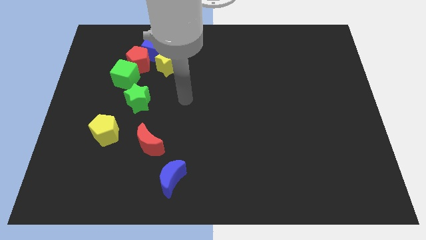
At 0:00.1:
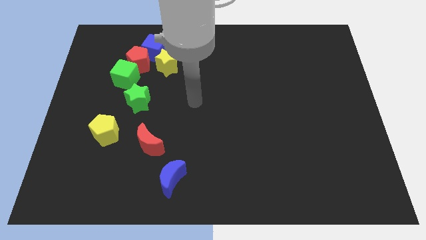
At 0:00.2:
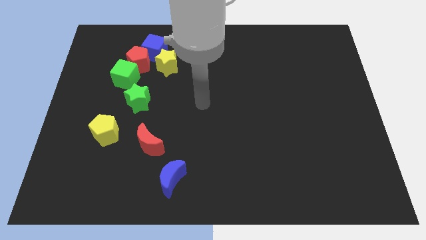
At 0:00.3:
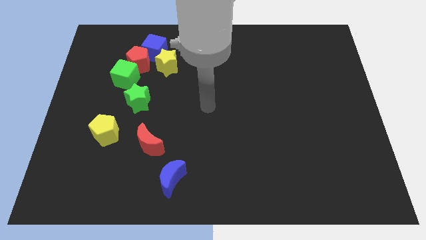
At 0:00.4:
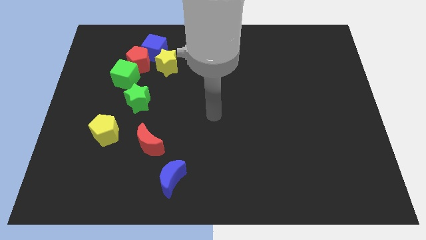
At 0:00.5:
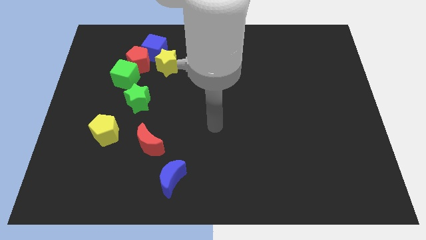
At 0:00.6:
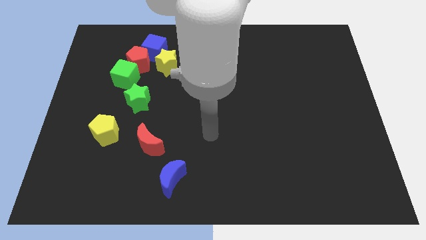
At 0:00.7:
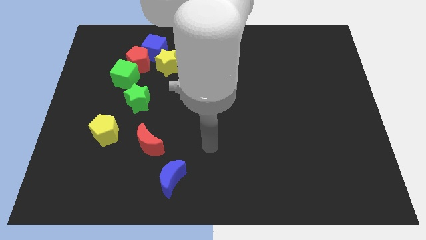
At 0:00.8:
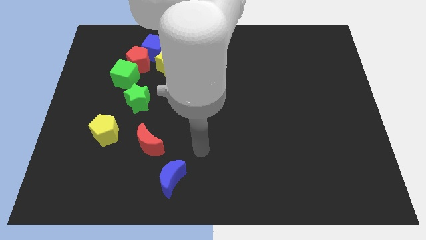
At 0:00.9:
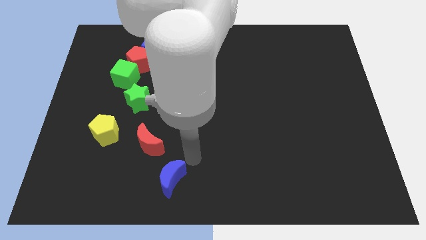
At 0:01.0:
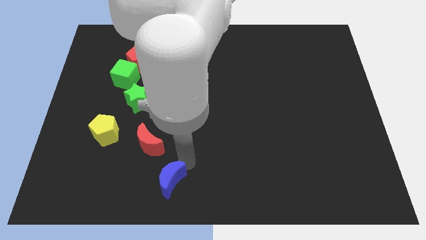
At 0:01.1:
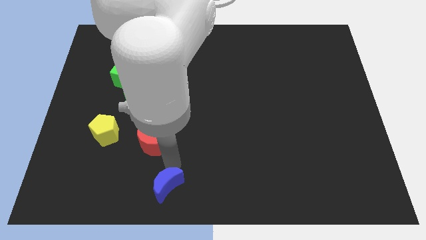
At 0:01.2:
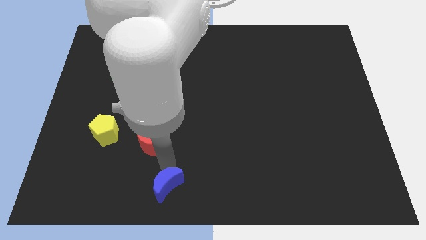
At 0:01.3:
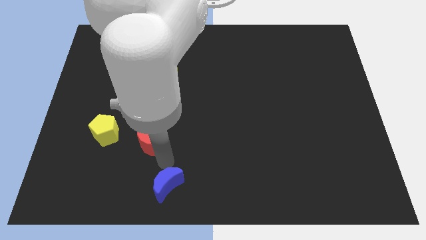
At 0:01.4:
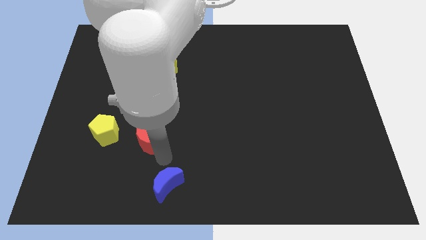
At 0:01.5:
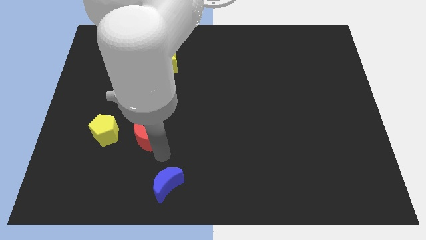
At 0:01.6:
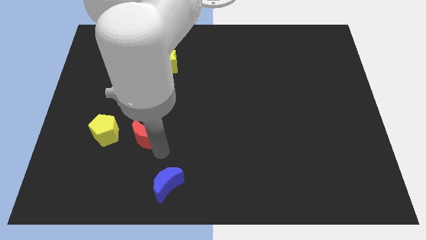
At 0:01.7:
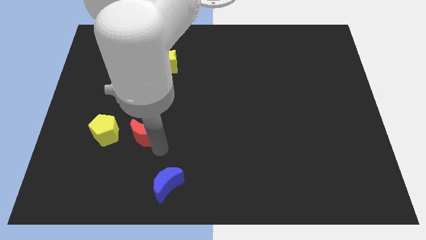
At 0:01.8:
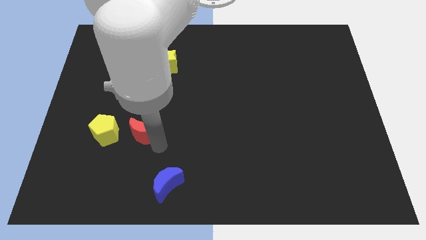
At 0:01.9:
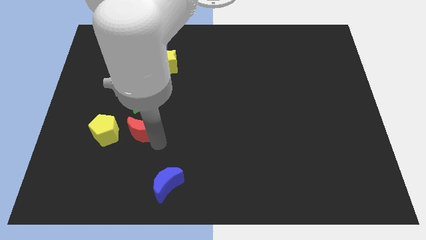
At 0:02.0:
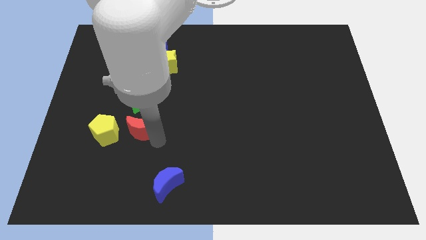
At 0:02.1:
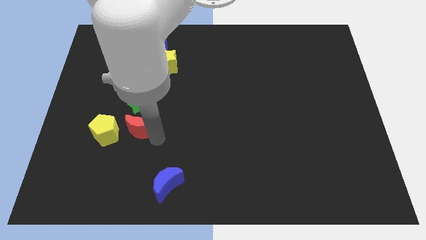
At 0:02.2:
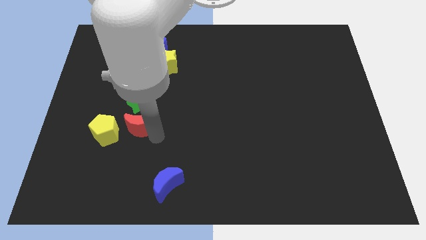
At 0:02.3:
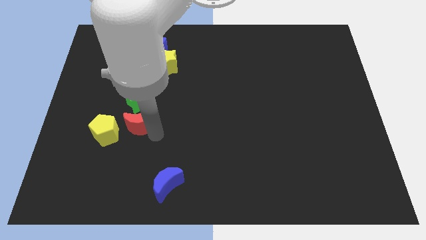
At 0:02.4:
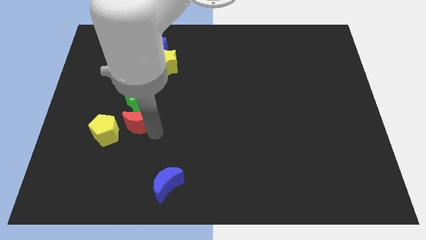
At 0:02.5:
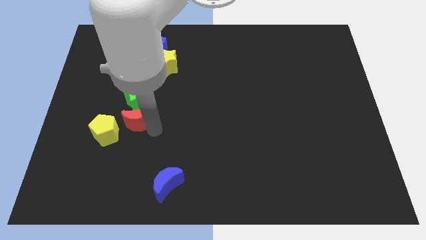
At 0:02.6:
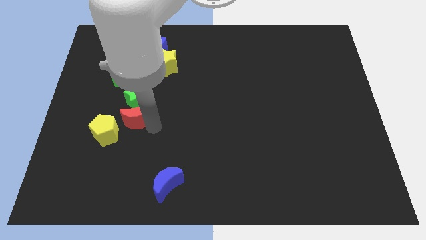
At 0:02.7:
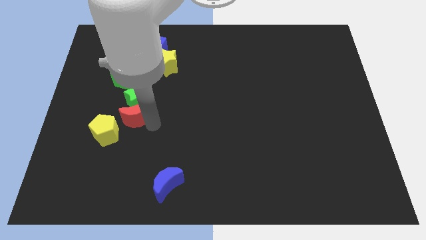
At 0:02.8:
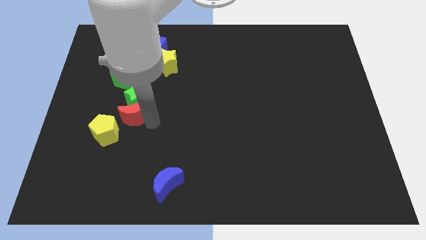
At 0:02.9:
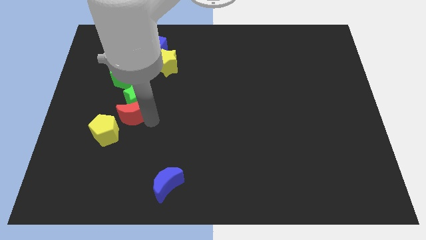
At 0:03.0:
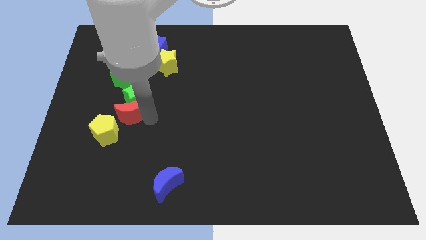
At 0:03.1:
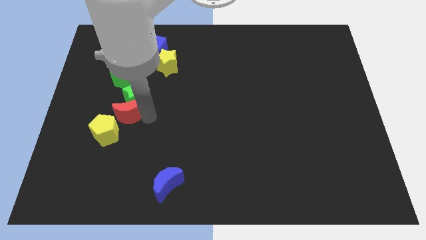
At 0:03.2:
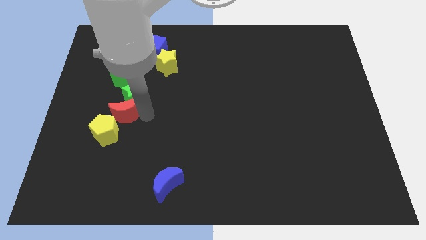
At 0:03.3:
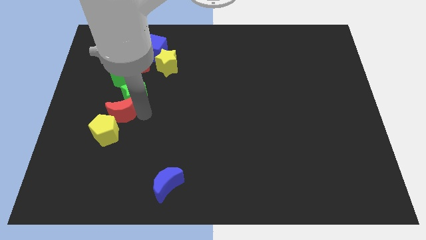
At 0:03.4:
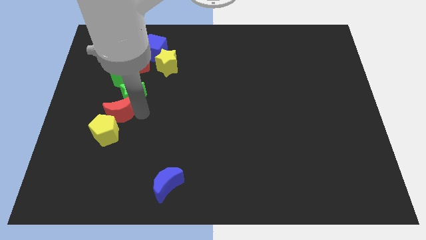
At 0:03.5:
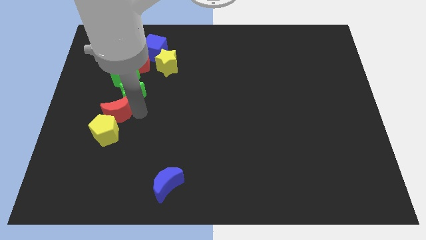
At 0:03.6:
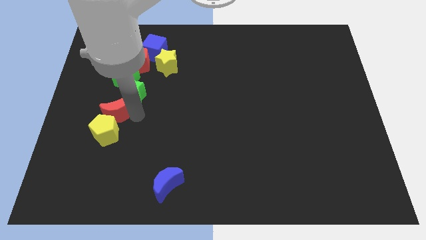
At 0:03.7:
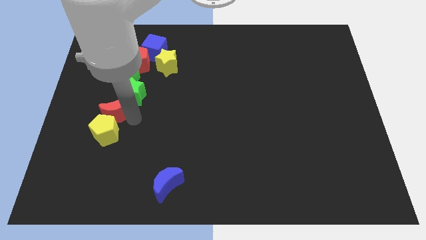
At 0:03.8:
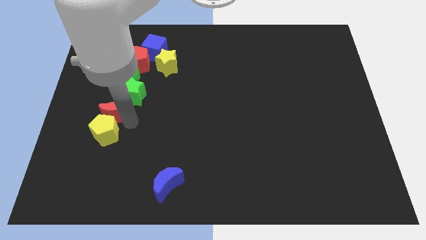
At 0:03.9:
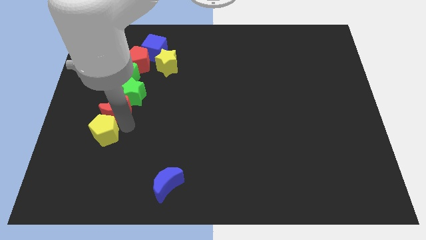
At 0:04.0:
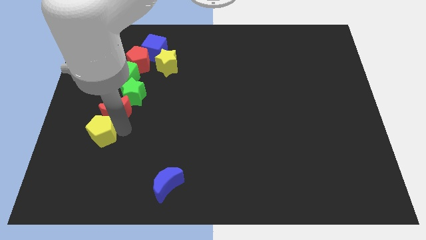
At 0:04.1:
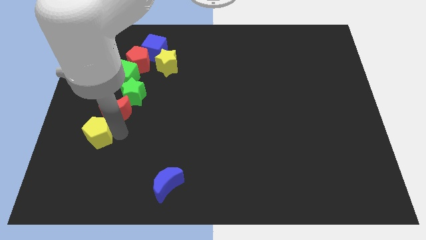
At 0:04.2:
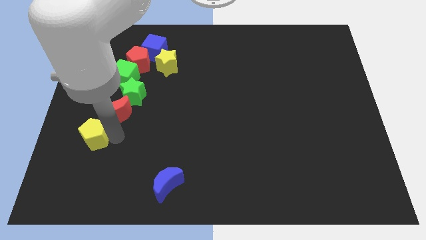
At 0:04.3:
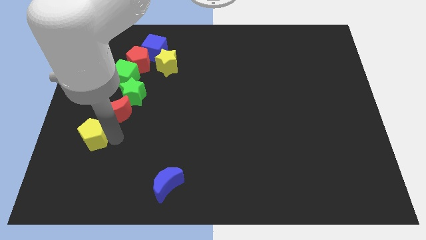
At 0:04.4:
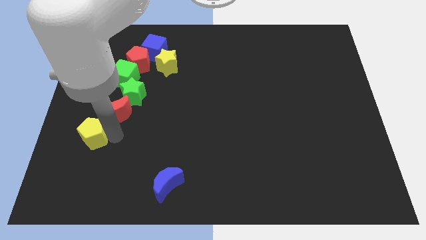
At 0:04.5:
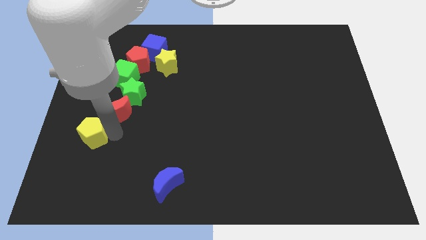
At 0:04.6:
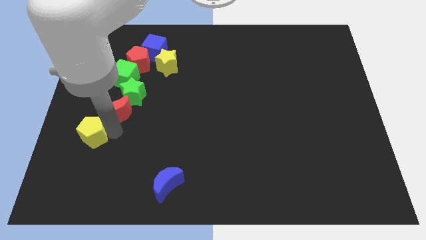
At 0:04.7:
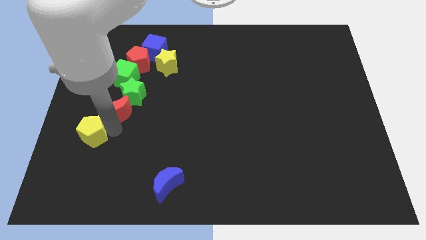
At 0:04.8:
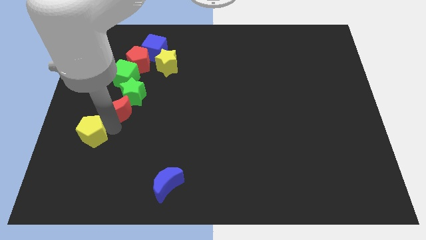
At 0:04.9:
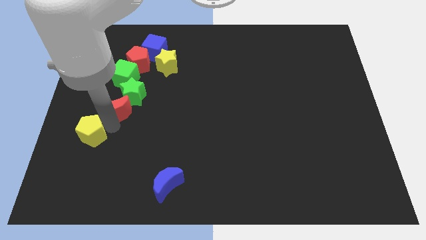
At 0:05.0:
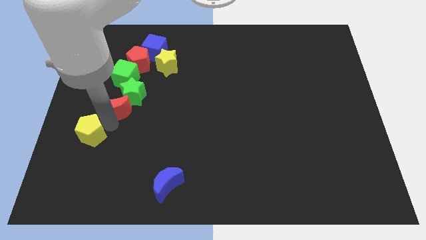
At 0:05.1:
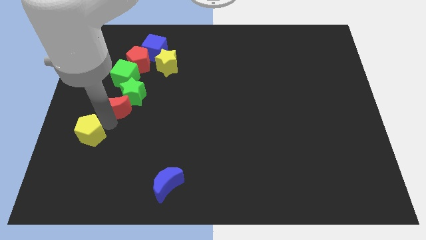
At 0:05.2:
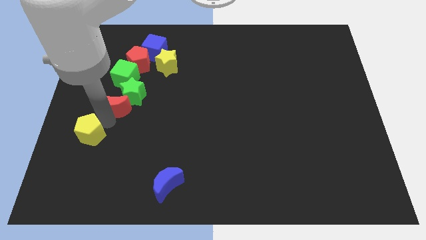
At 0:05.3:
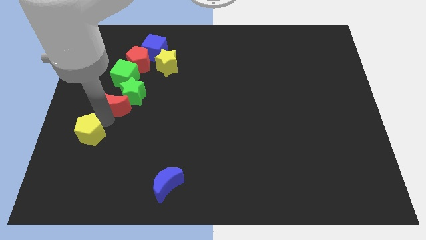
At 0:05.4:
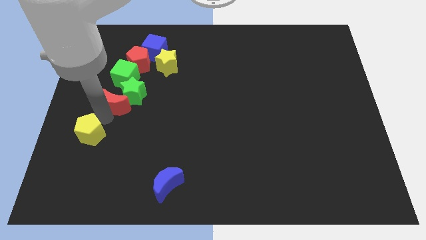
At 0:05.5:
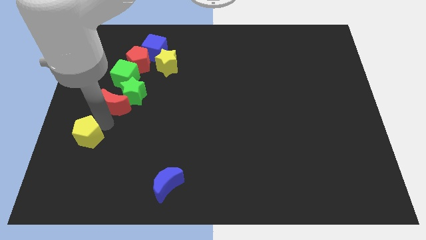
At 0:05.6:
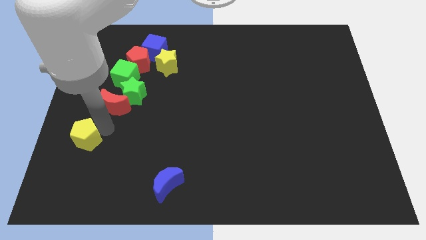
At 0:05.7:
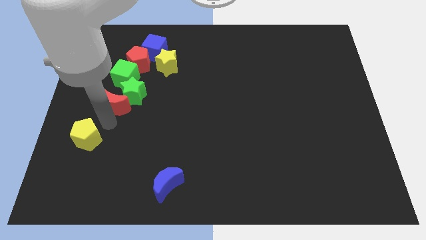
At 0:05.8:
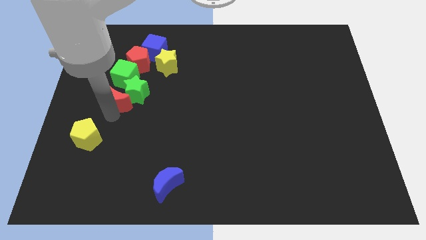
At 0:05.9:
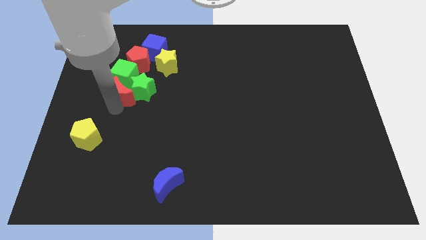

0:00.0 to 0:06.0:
slide the red moon close to the green cube

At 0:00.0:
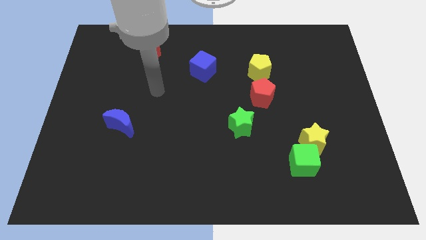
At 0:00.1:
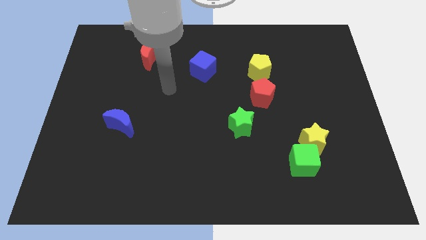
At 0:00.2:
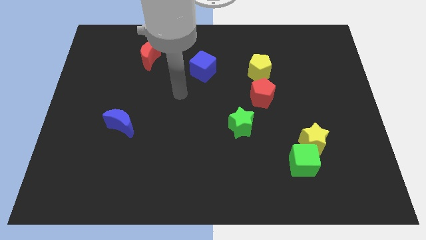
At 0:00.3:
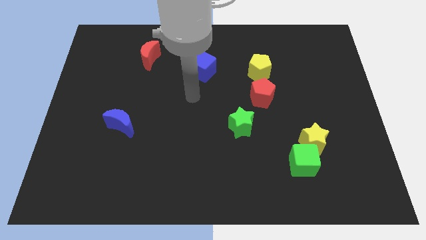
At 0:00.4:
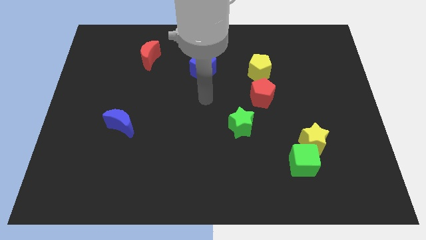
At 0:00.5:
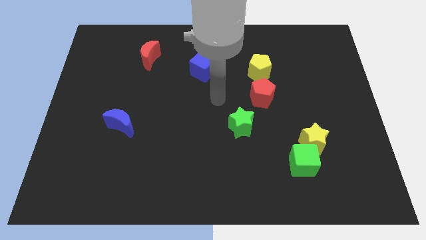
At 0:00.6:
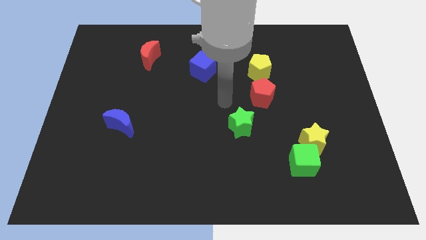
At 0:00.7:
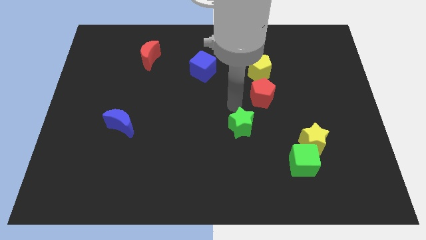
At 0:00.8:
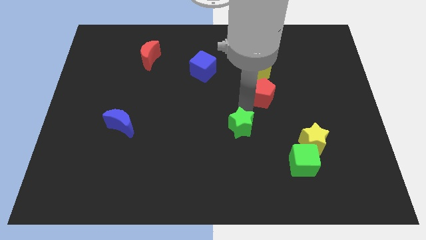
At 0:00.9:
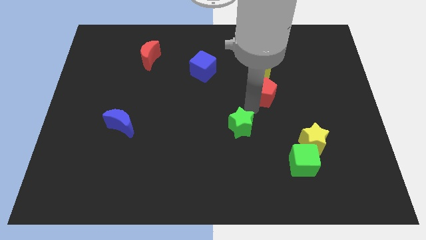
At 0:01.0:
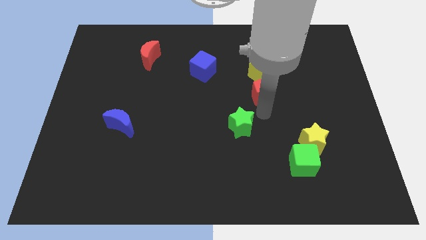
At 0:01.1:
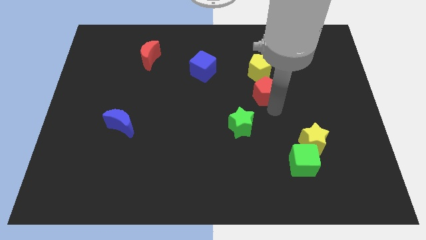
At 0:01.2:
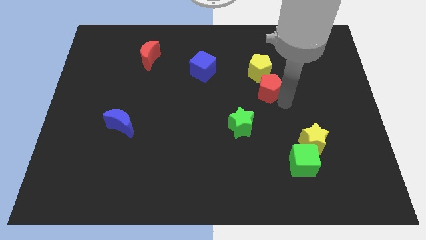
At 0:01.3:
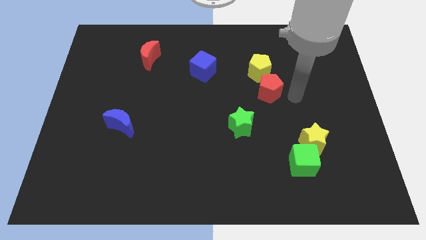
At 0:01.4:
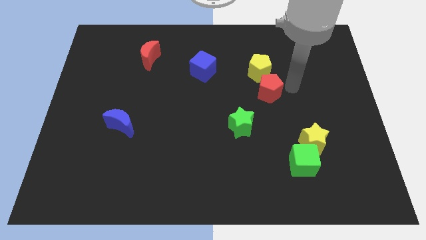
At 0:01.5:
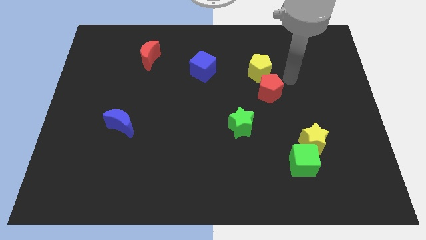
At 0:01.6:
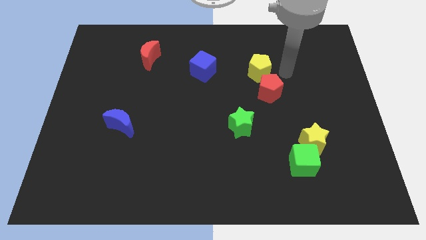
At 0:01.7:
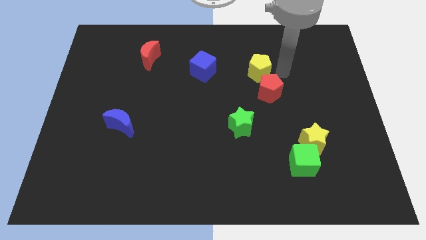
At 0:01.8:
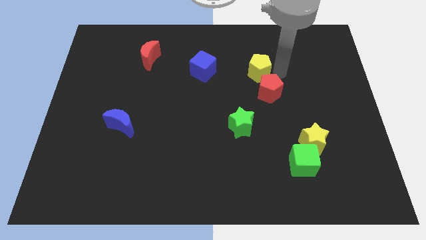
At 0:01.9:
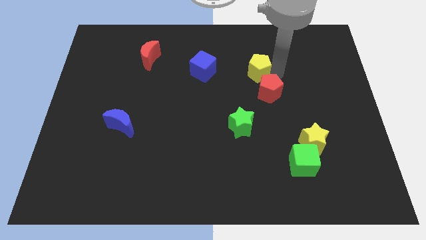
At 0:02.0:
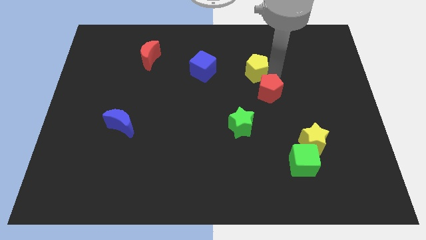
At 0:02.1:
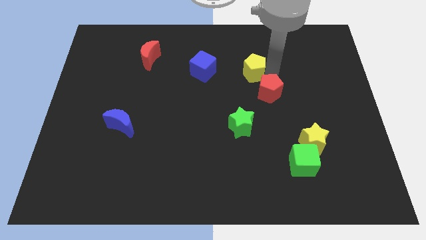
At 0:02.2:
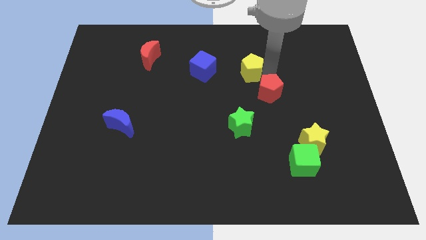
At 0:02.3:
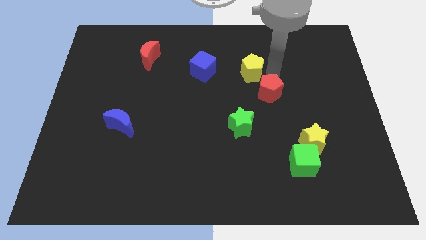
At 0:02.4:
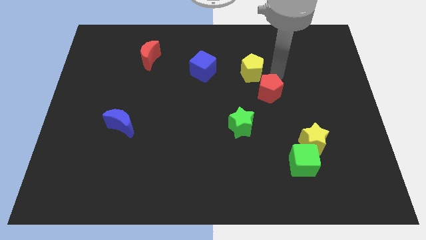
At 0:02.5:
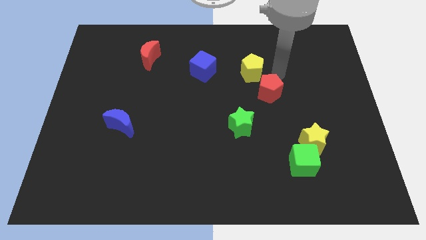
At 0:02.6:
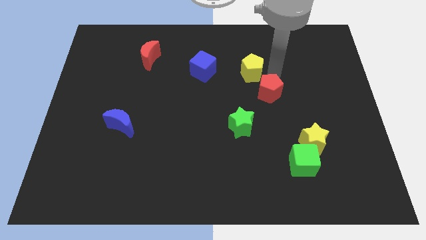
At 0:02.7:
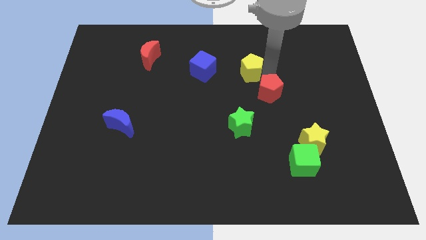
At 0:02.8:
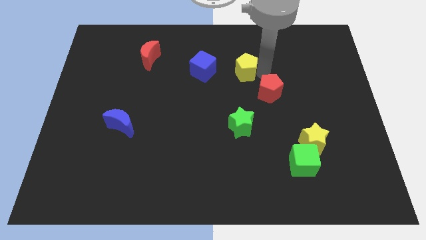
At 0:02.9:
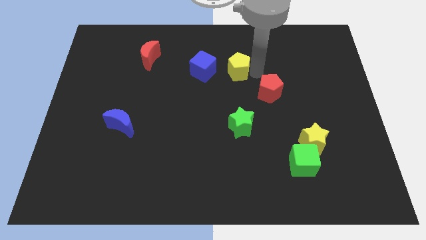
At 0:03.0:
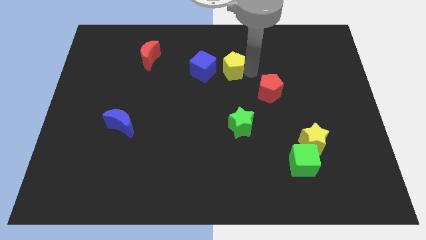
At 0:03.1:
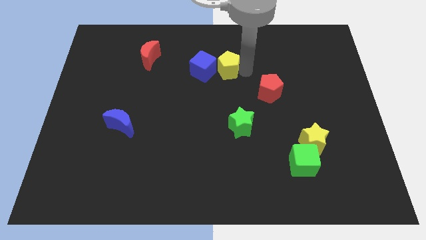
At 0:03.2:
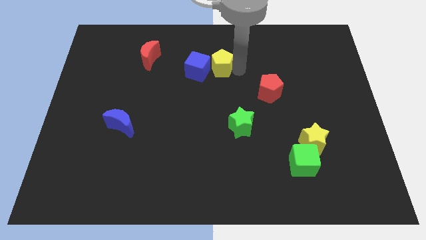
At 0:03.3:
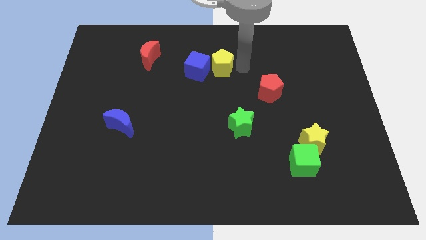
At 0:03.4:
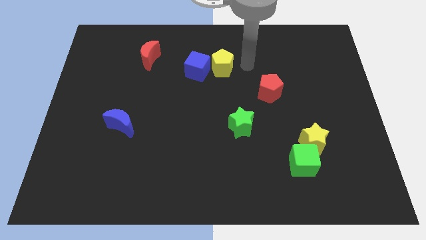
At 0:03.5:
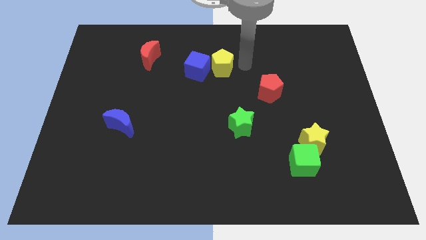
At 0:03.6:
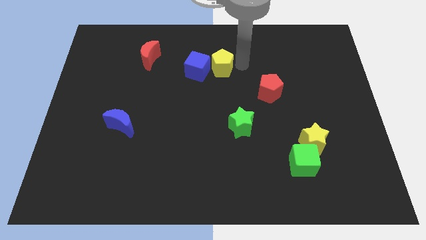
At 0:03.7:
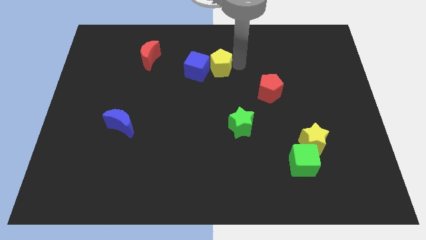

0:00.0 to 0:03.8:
move the yellow pentagon towards the blue cube
